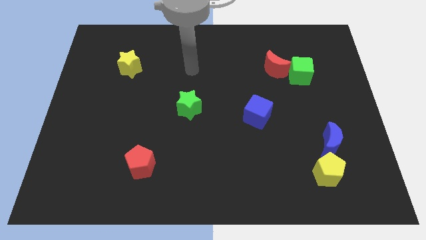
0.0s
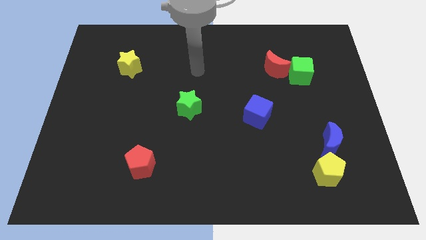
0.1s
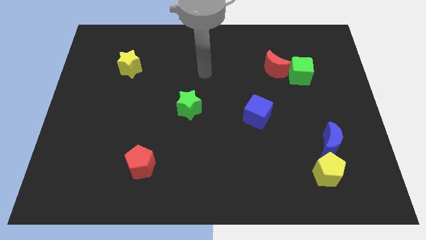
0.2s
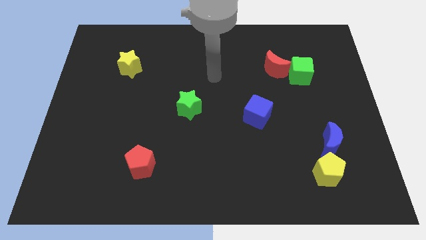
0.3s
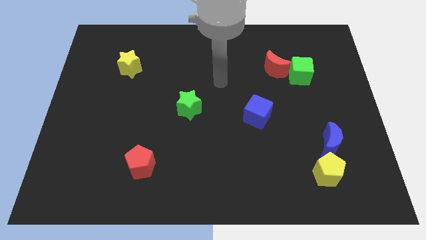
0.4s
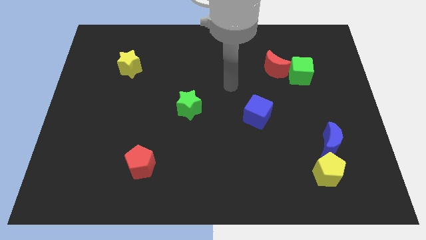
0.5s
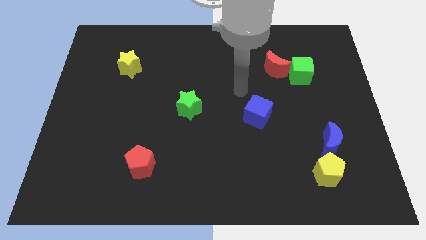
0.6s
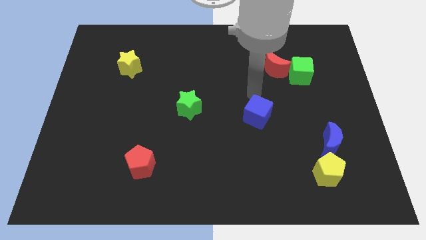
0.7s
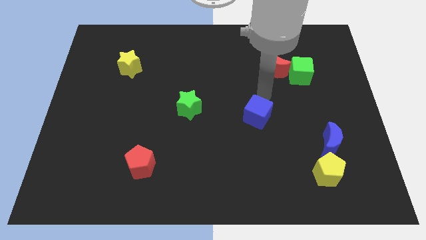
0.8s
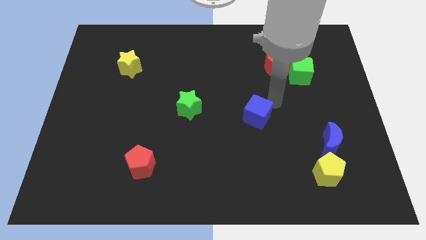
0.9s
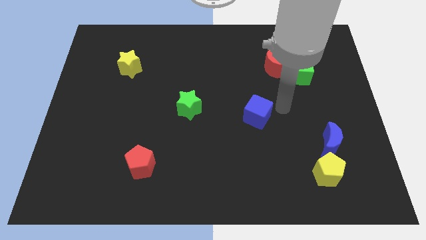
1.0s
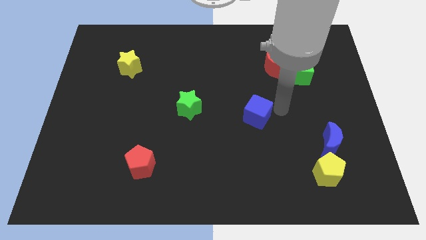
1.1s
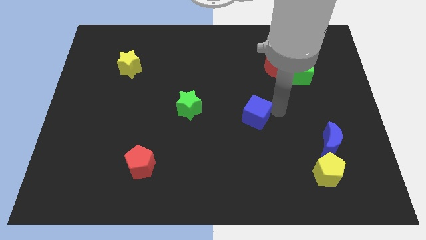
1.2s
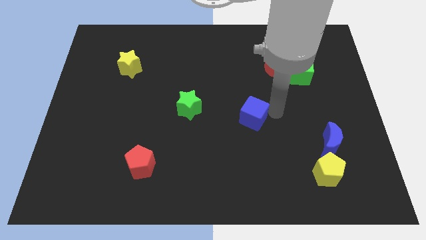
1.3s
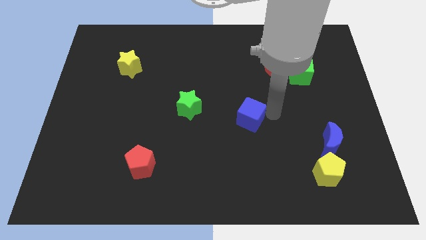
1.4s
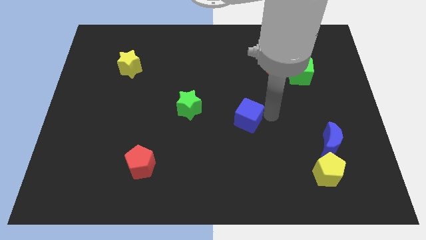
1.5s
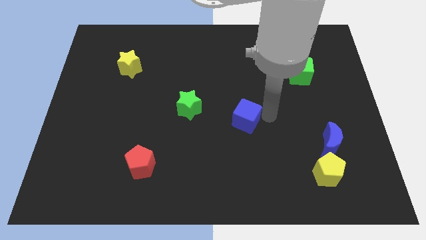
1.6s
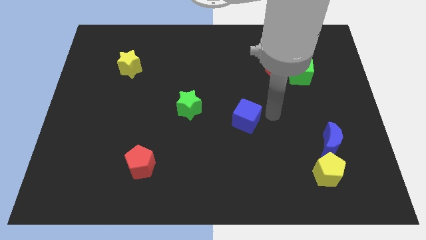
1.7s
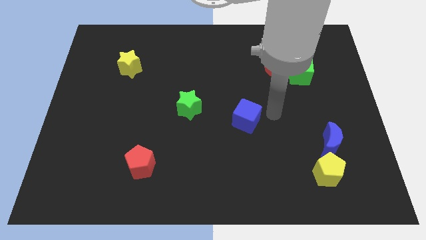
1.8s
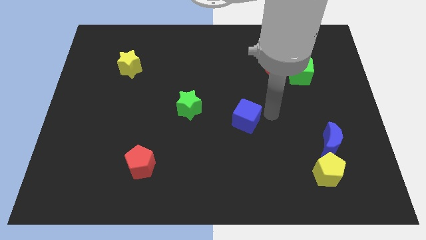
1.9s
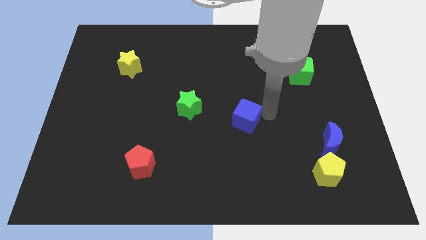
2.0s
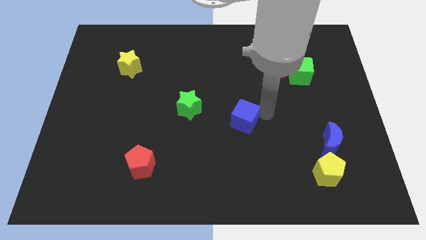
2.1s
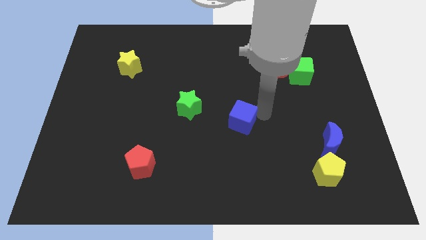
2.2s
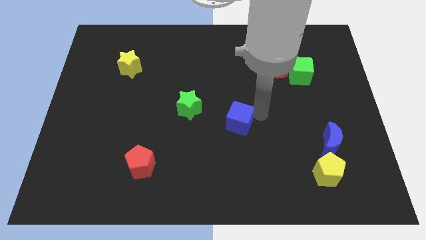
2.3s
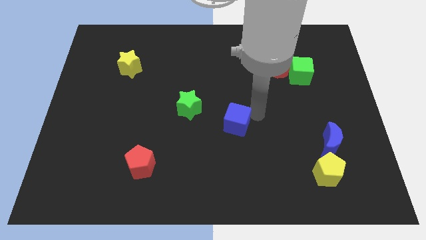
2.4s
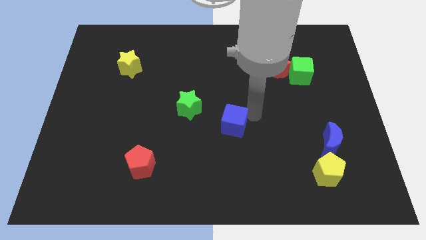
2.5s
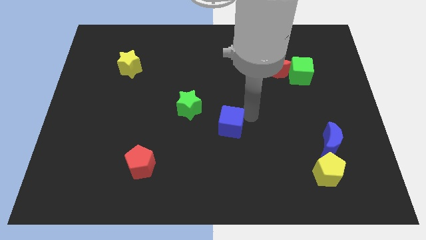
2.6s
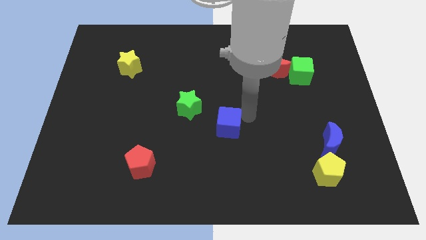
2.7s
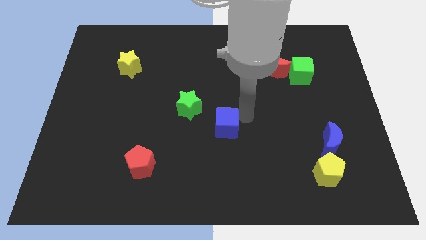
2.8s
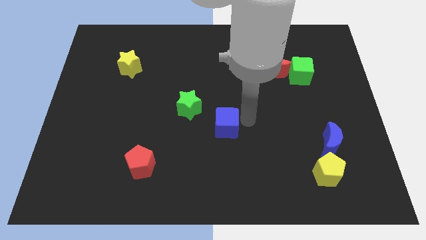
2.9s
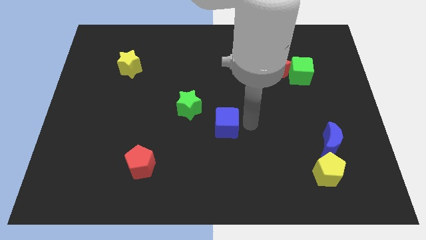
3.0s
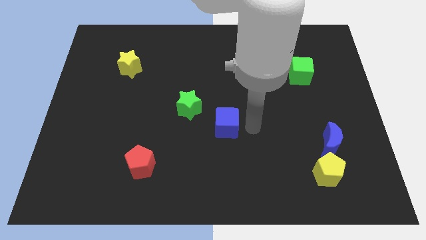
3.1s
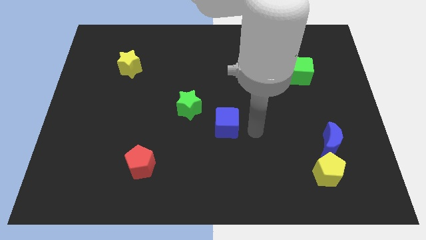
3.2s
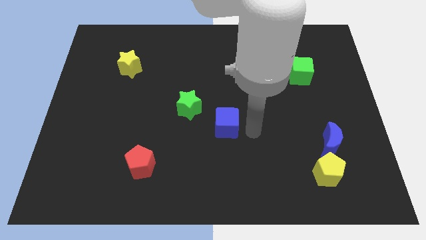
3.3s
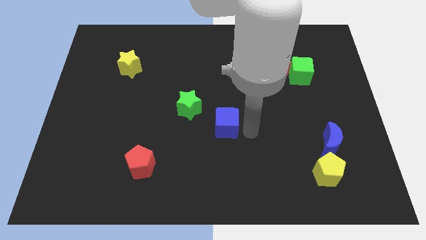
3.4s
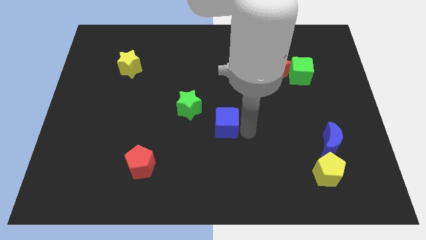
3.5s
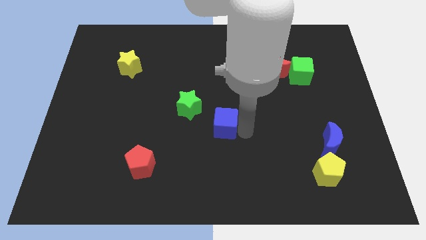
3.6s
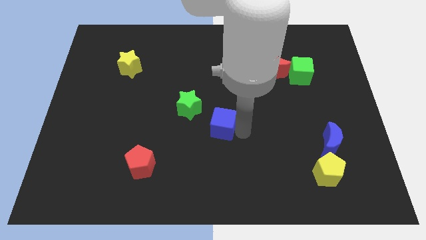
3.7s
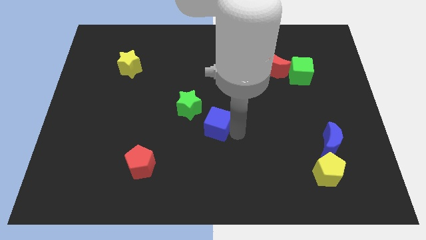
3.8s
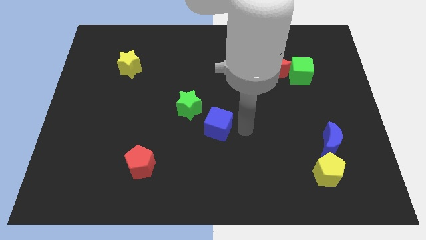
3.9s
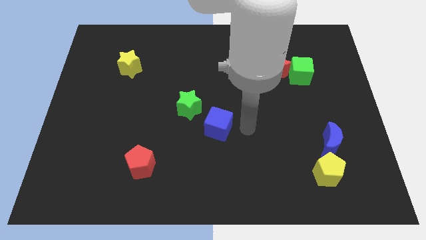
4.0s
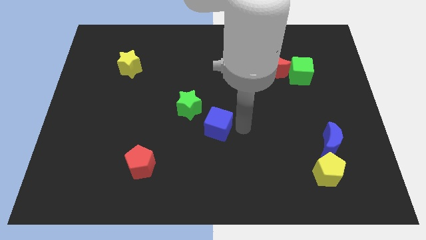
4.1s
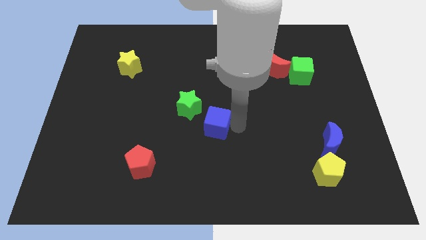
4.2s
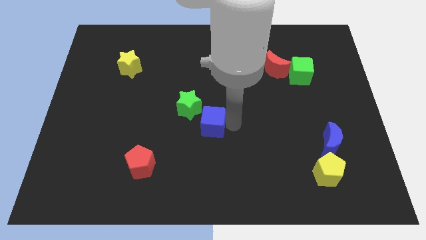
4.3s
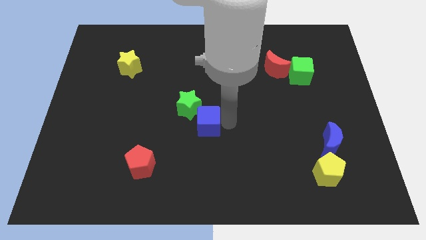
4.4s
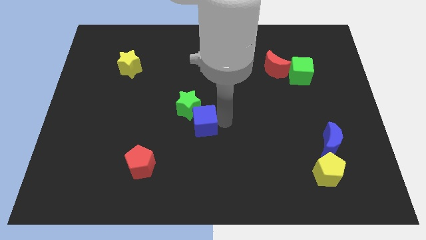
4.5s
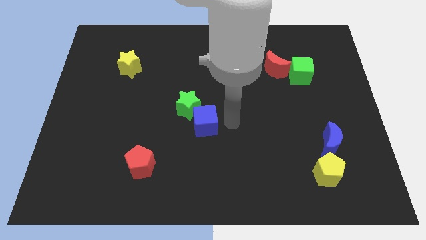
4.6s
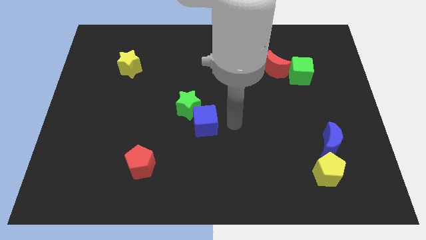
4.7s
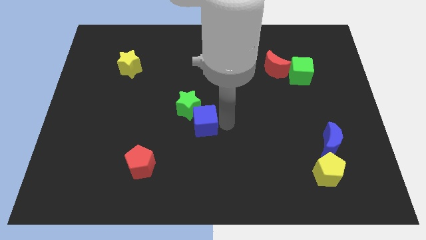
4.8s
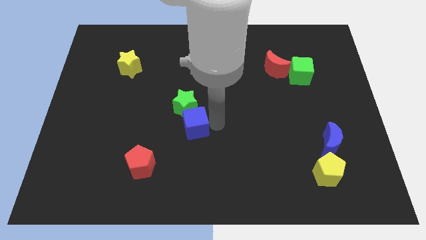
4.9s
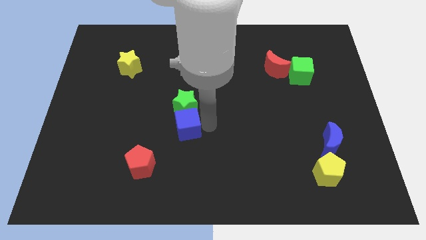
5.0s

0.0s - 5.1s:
push the blue cube to the bottom left side of the green star

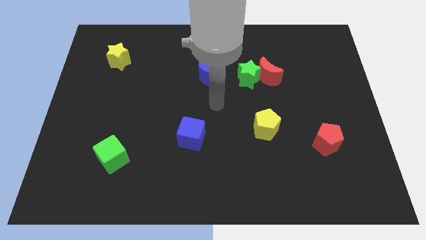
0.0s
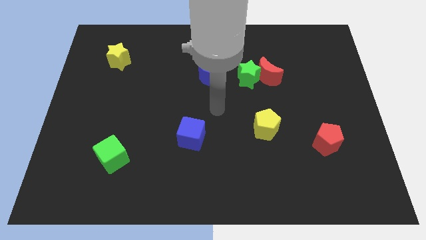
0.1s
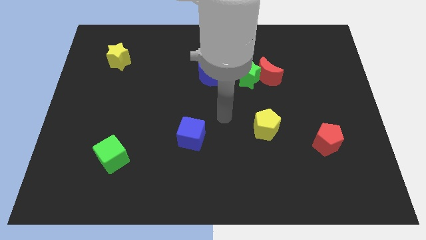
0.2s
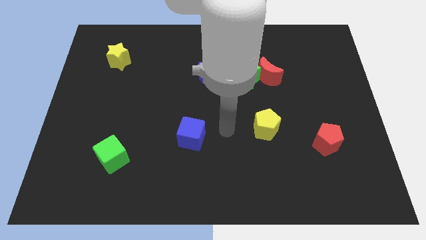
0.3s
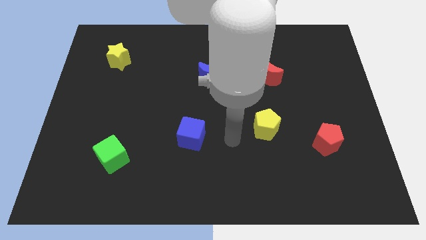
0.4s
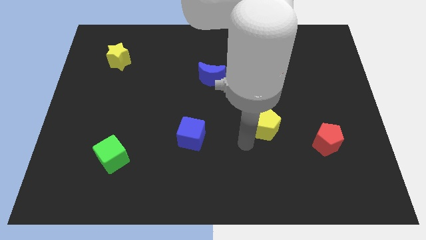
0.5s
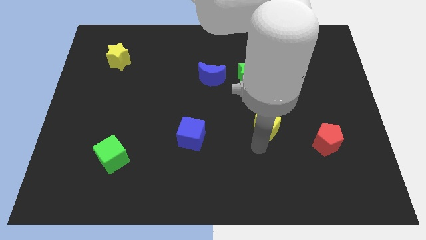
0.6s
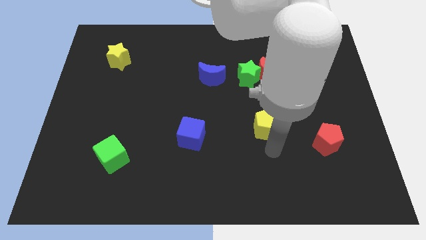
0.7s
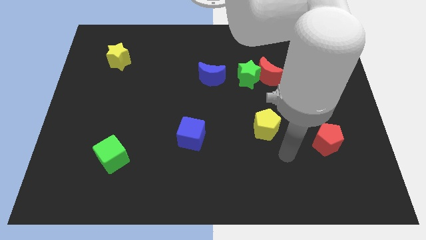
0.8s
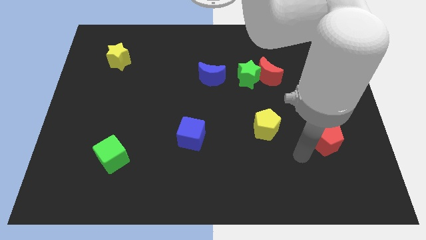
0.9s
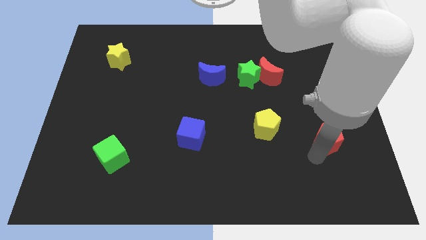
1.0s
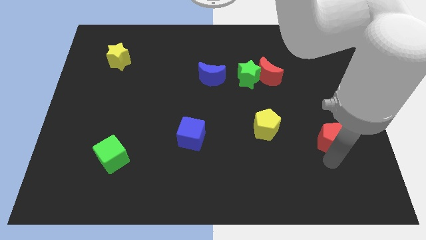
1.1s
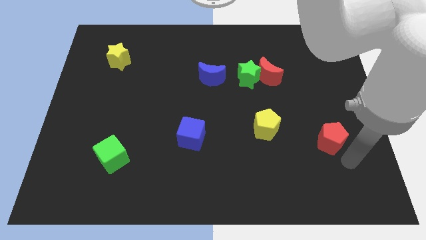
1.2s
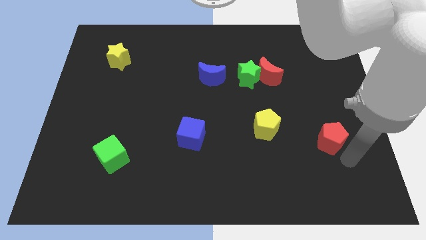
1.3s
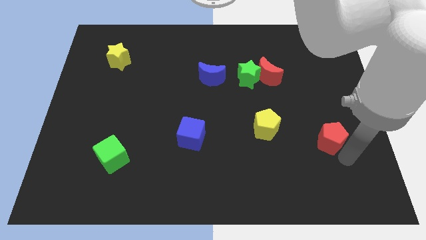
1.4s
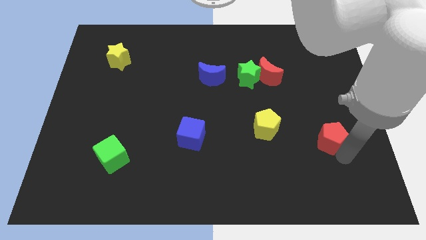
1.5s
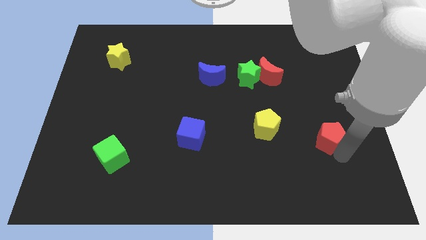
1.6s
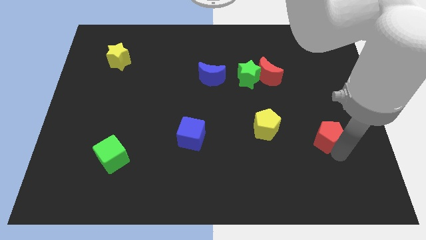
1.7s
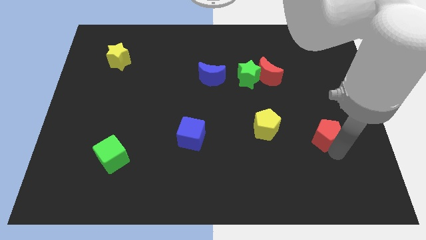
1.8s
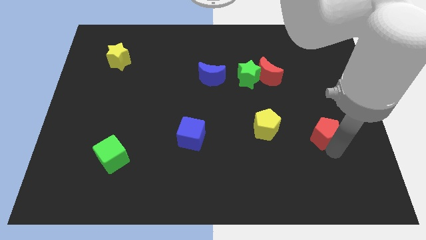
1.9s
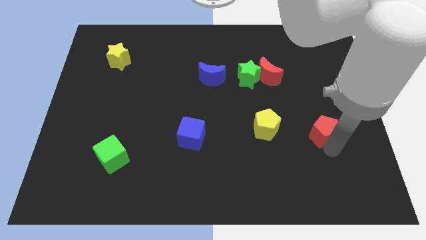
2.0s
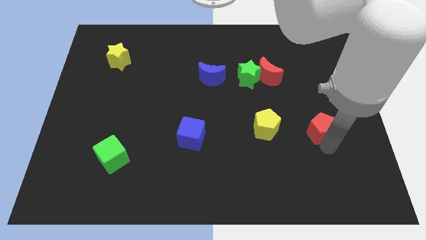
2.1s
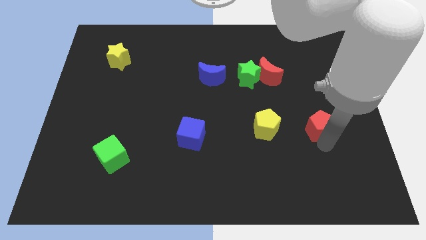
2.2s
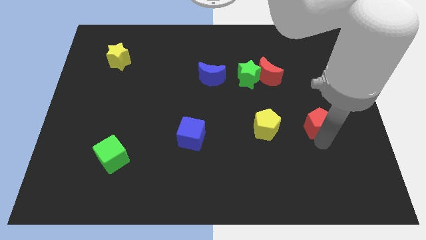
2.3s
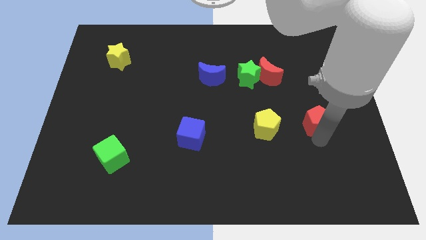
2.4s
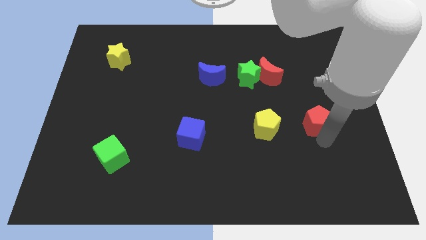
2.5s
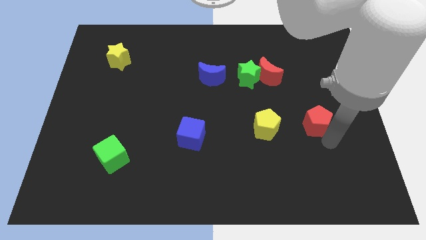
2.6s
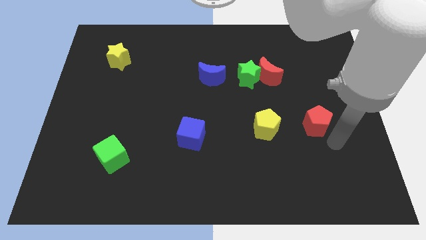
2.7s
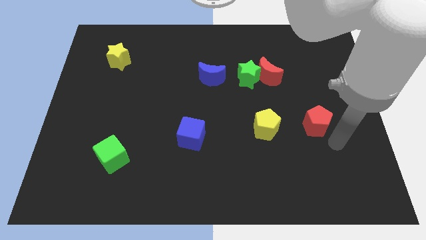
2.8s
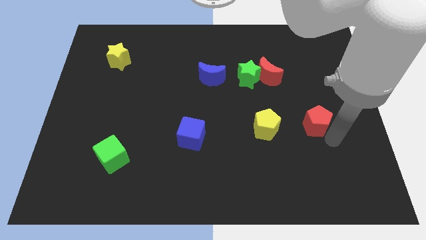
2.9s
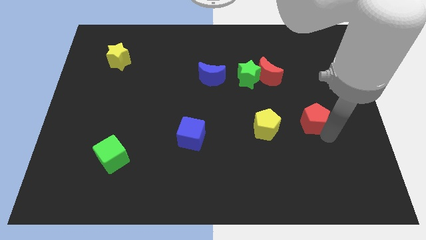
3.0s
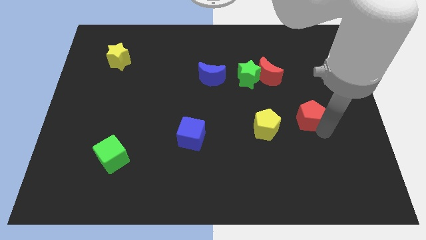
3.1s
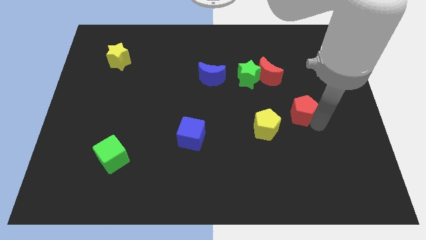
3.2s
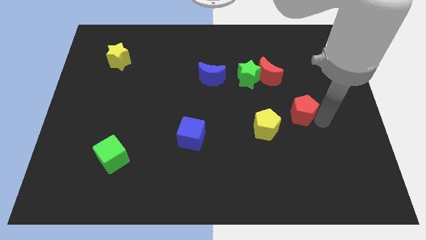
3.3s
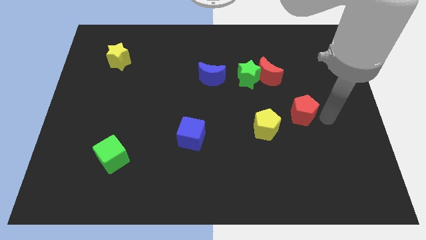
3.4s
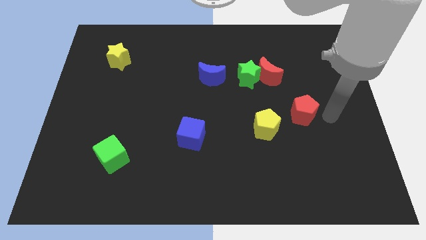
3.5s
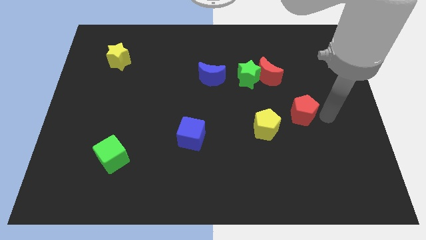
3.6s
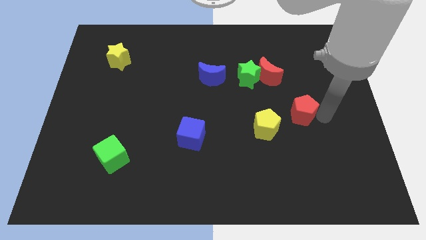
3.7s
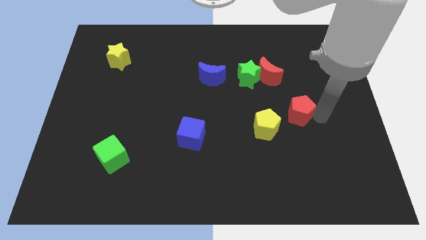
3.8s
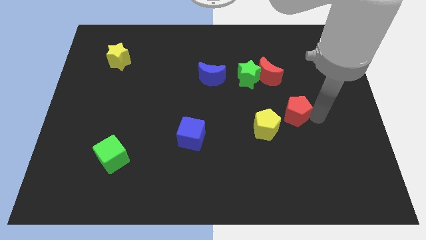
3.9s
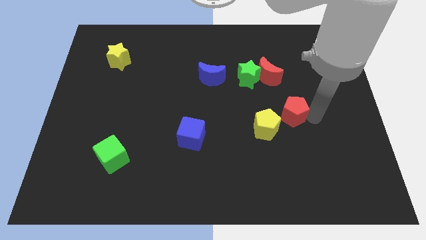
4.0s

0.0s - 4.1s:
move the red pentagon to the bottom of the red moon
